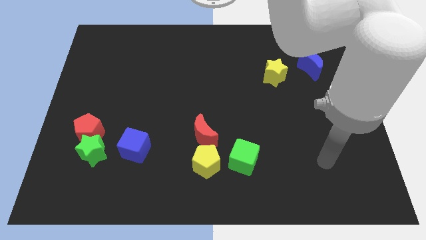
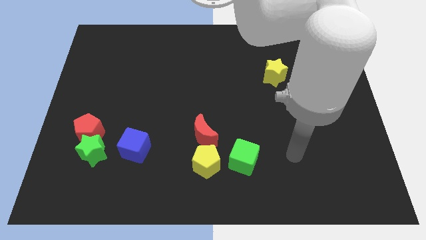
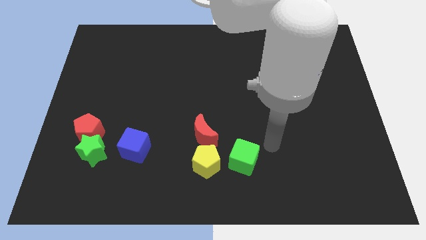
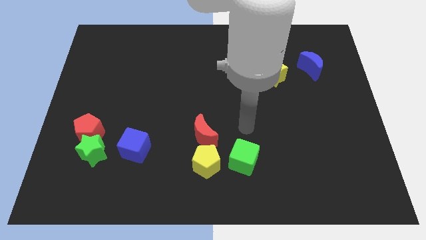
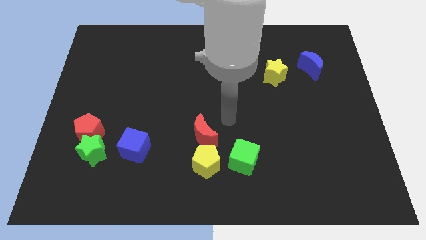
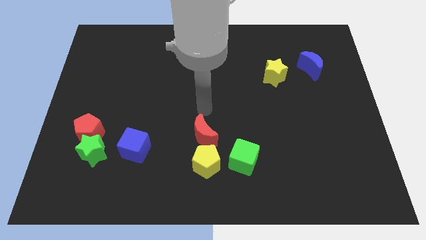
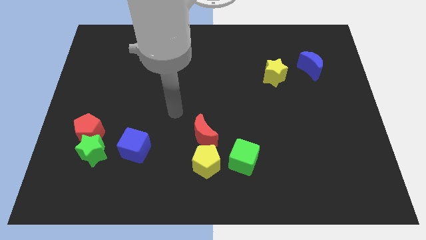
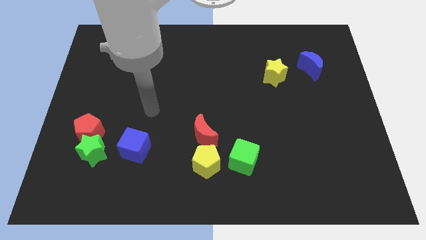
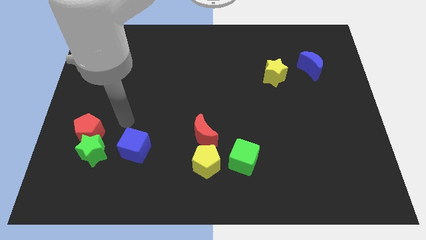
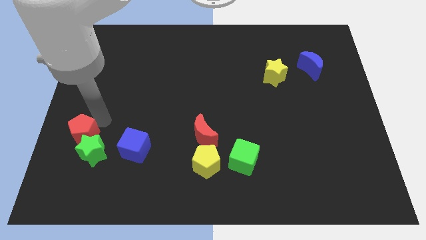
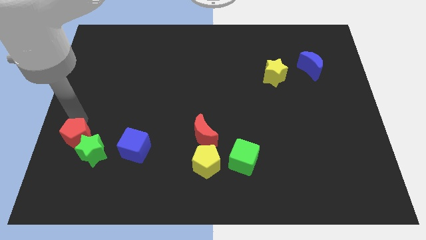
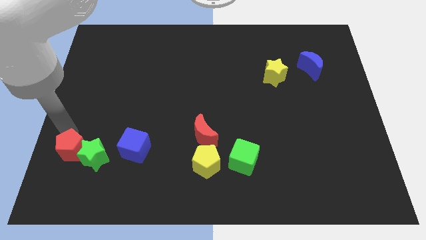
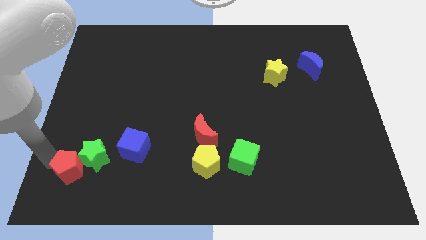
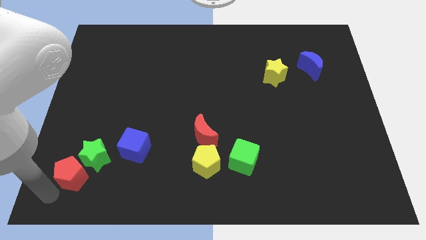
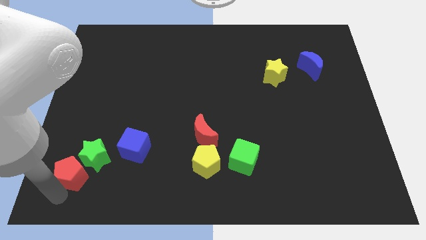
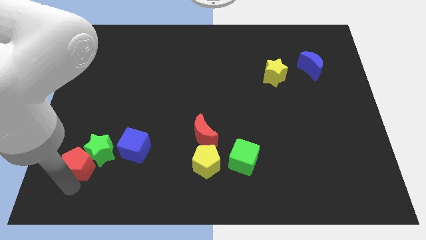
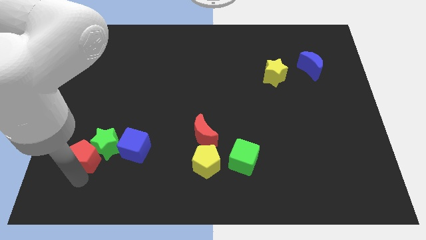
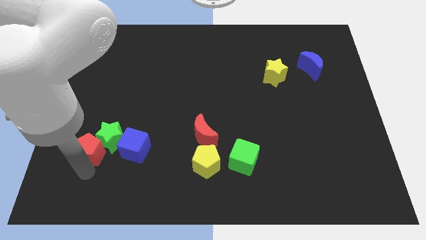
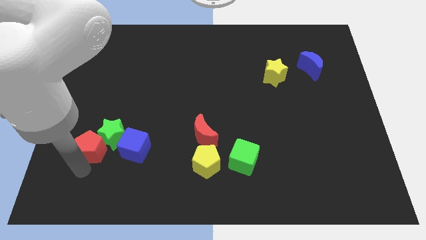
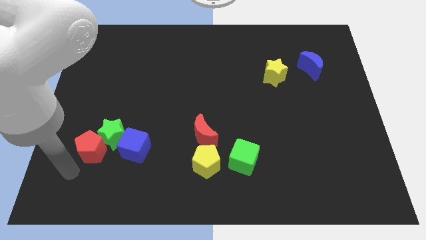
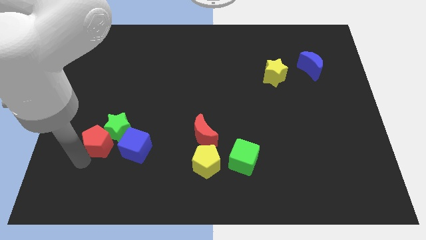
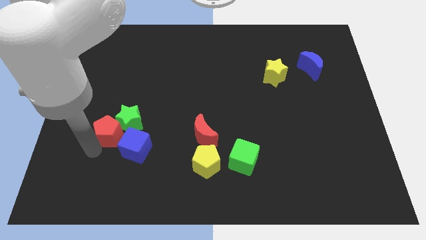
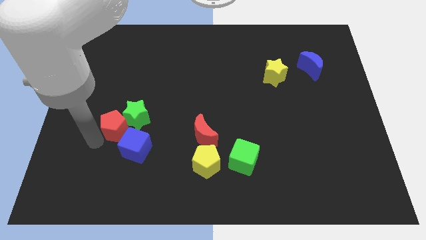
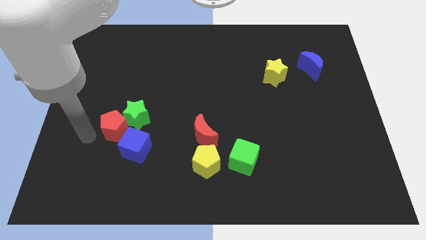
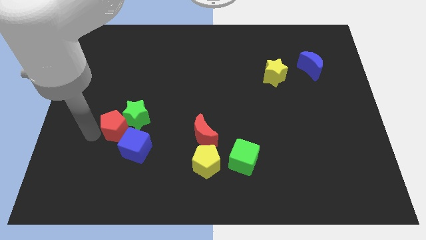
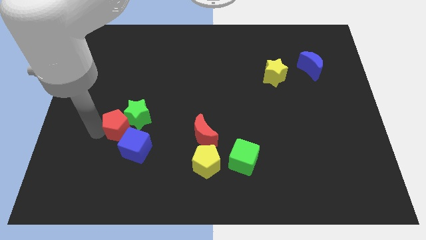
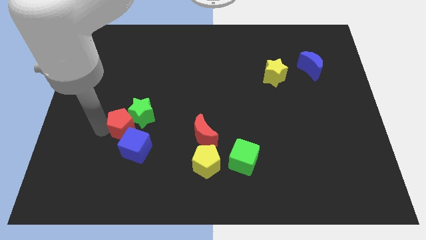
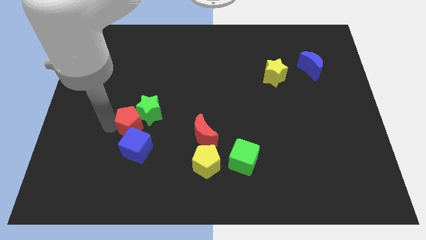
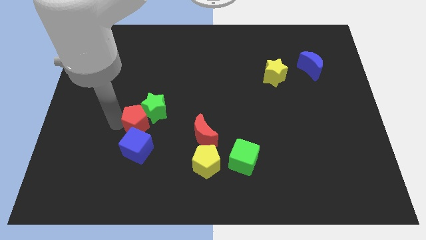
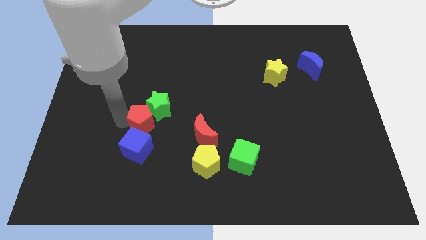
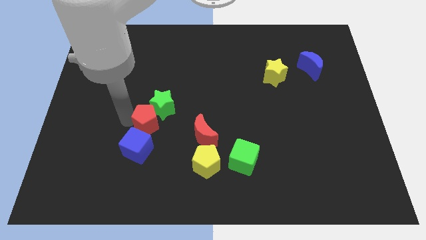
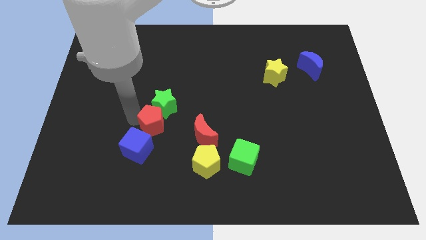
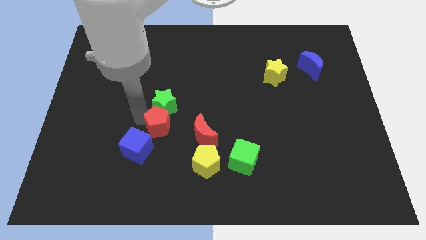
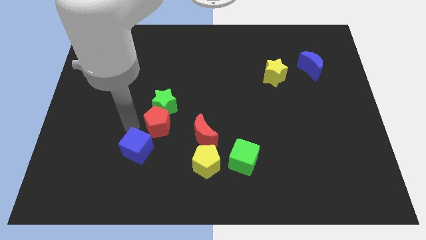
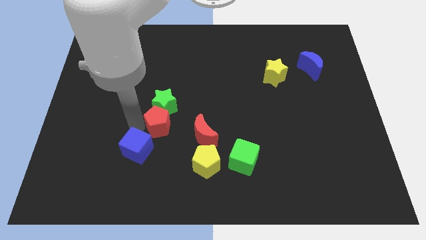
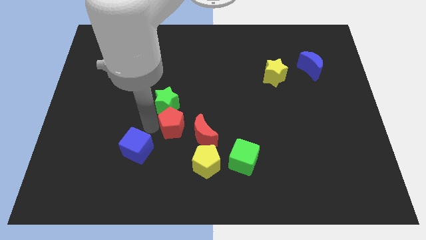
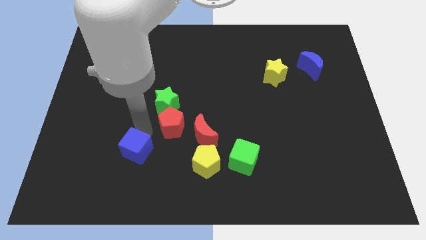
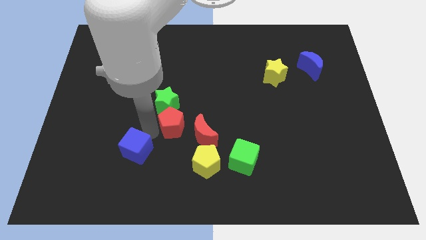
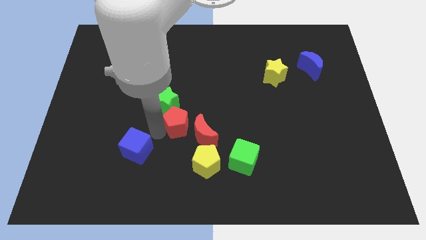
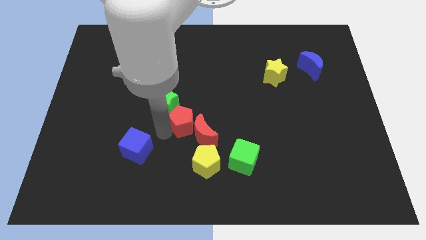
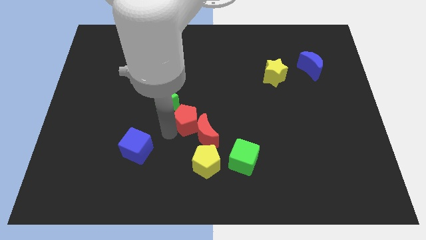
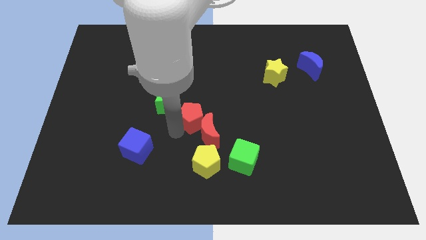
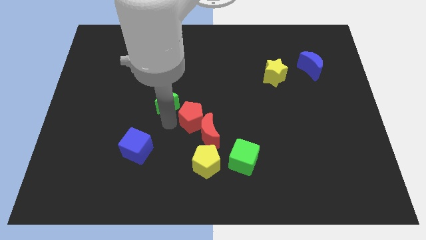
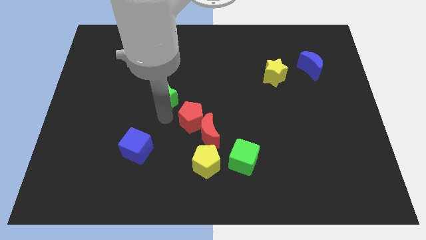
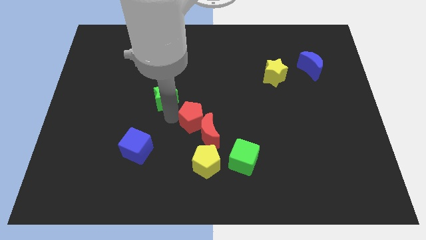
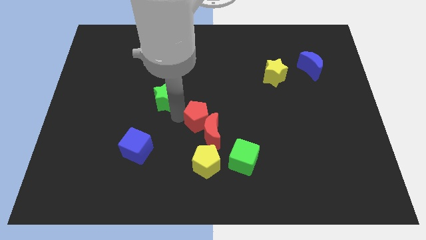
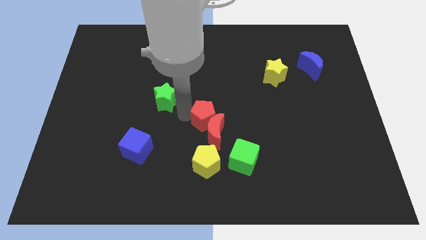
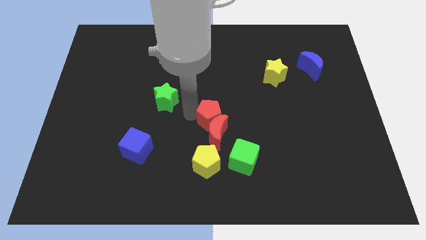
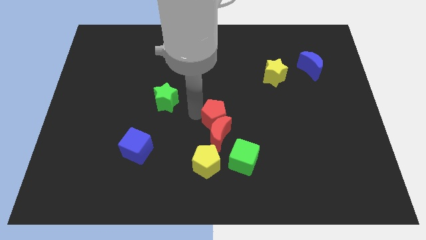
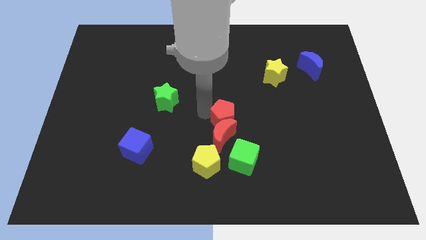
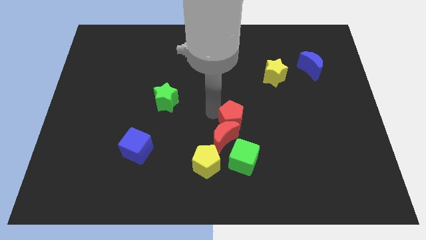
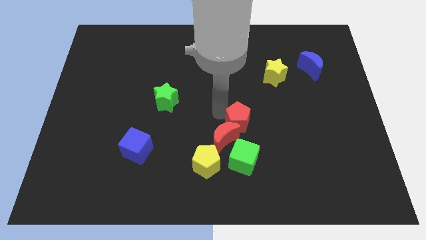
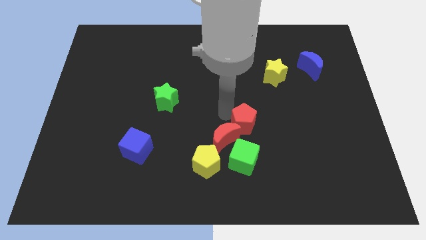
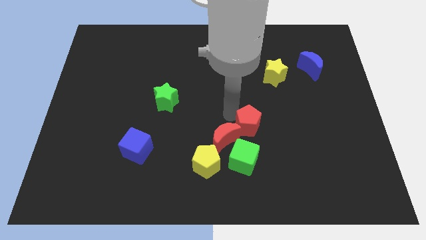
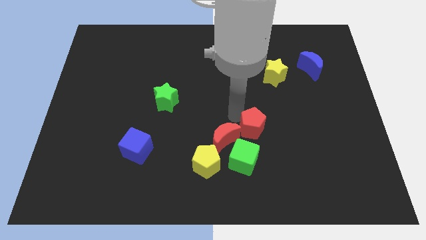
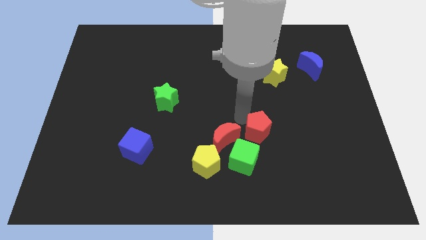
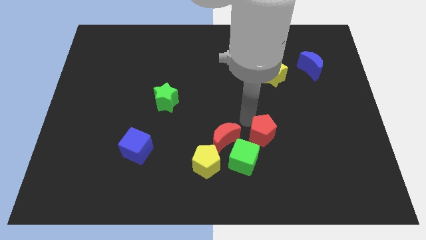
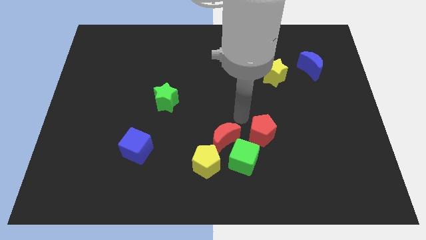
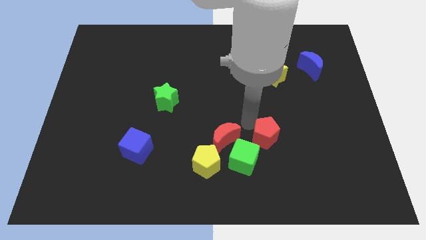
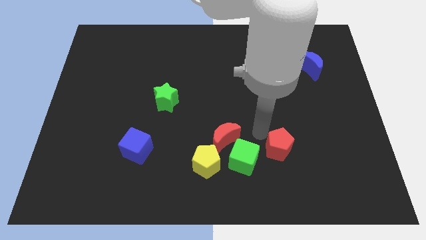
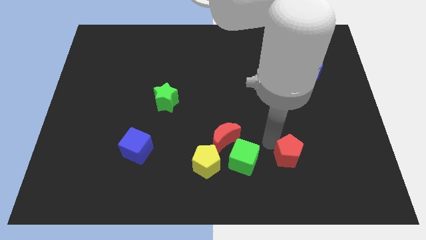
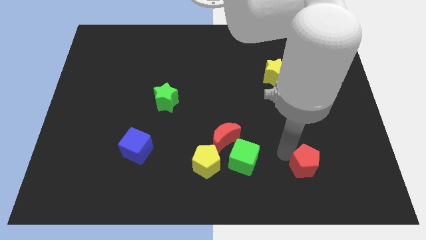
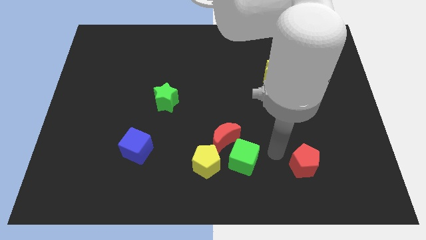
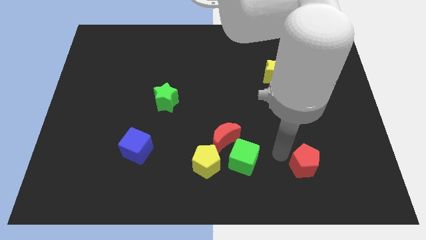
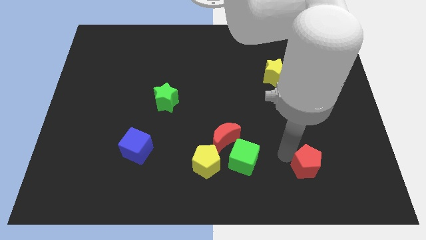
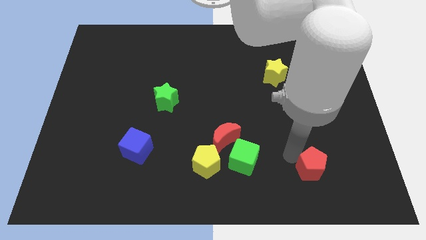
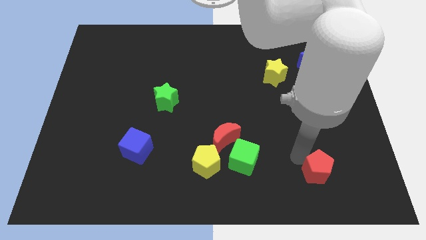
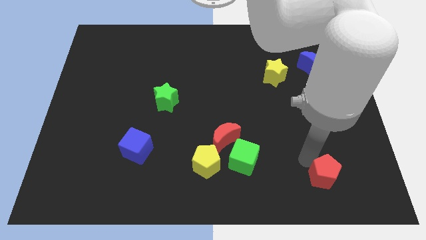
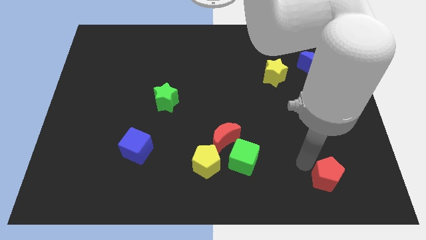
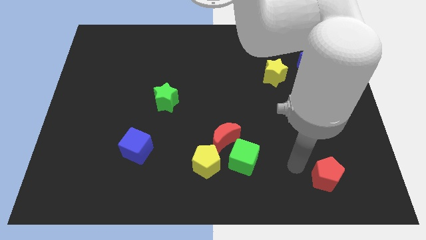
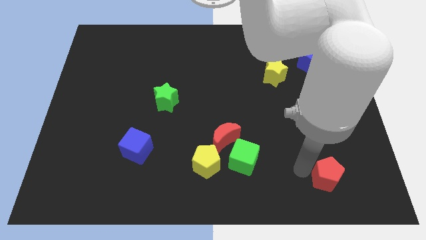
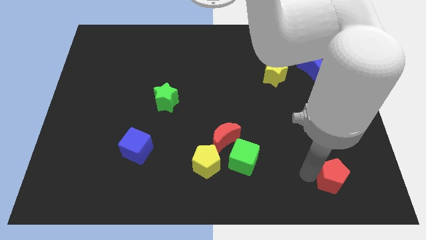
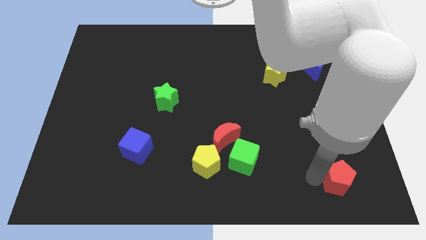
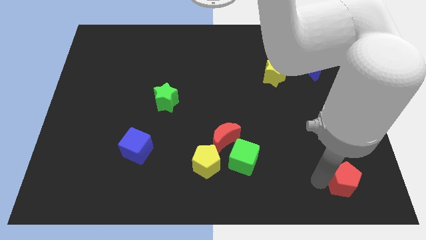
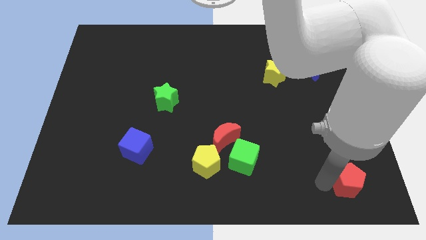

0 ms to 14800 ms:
move the red pentagon to the lower right corner

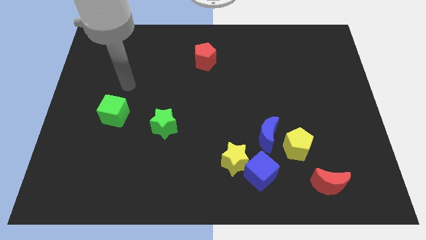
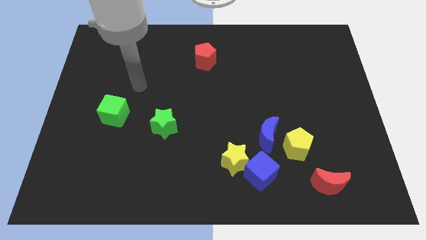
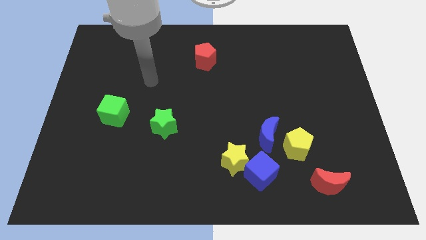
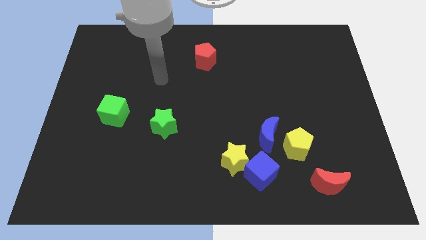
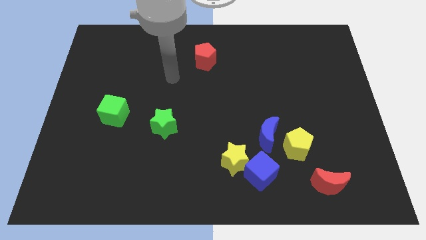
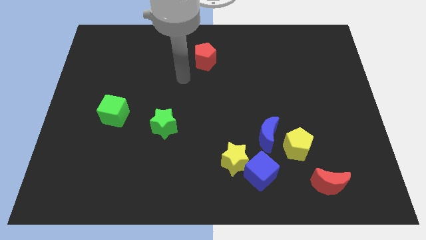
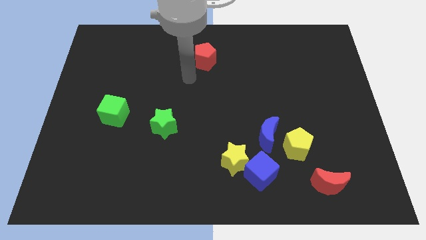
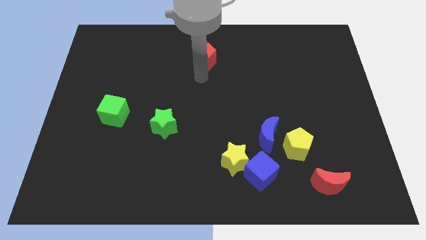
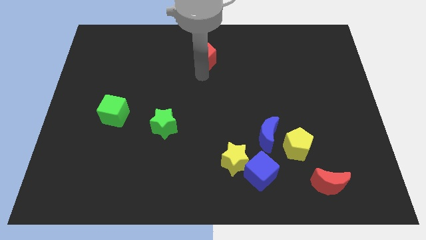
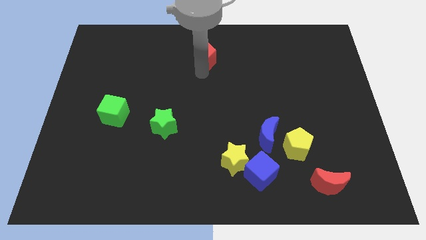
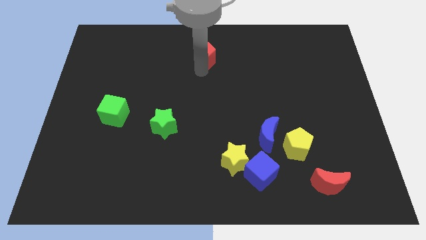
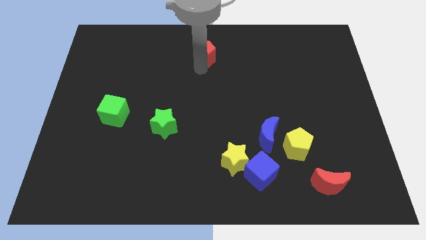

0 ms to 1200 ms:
slide the red pentagon to the top side
